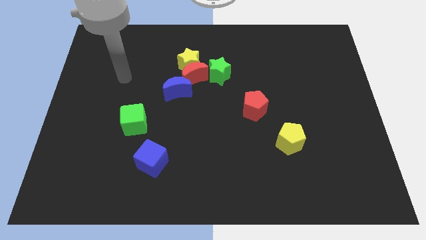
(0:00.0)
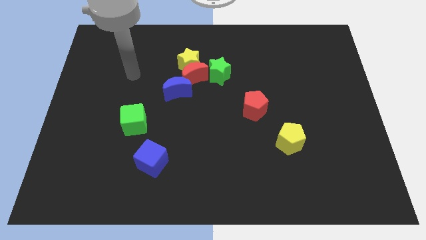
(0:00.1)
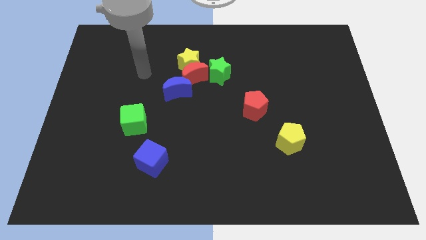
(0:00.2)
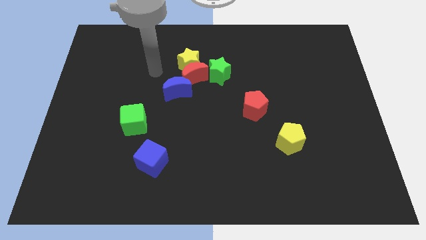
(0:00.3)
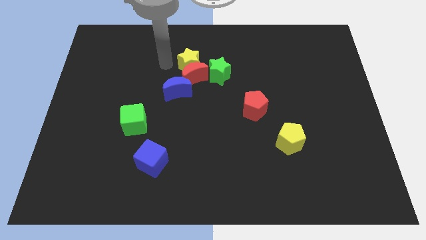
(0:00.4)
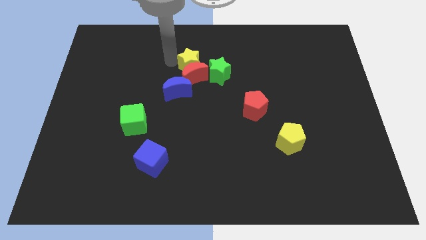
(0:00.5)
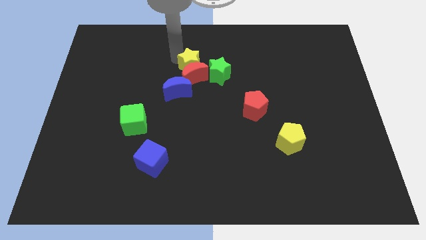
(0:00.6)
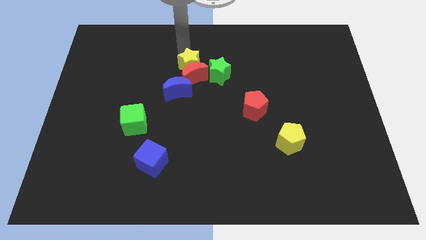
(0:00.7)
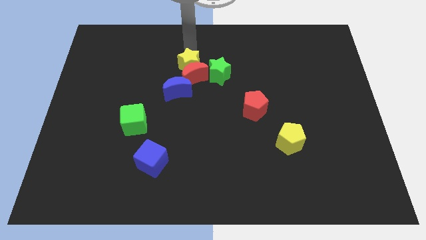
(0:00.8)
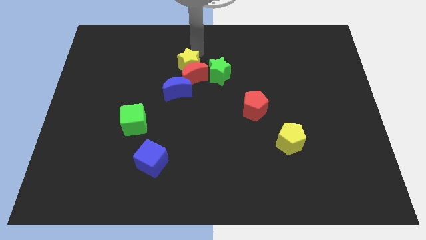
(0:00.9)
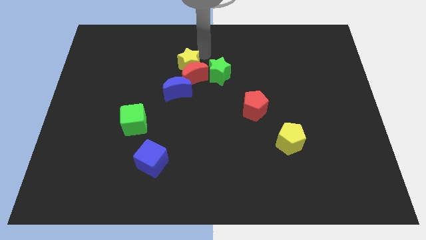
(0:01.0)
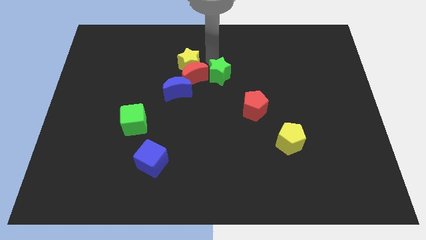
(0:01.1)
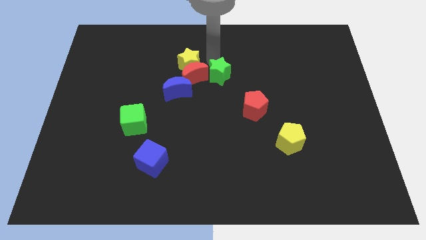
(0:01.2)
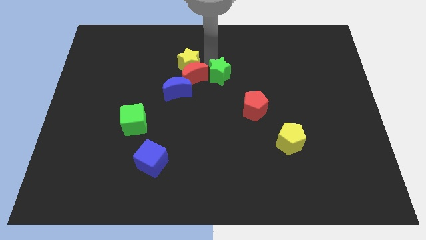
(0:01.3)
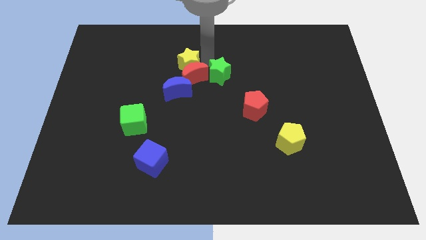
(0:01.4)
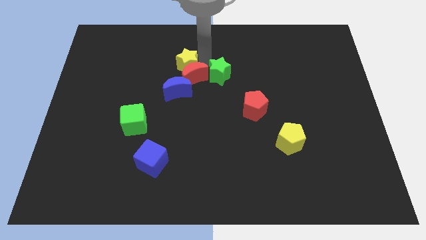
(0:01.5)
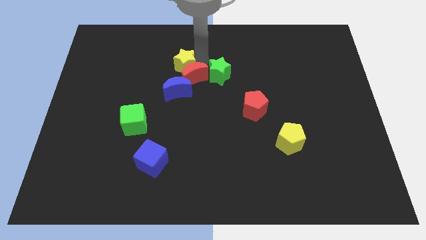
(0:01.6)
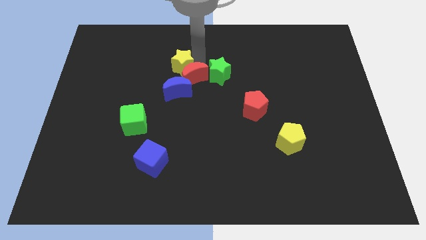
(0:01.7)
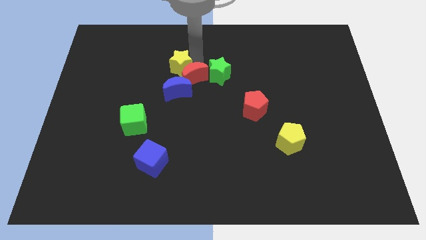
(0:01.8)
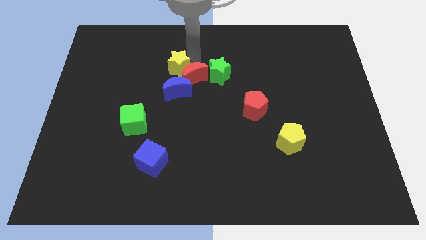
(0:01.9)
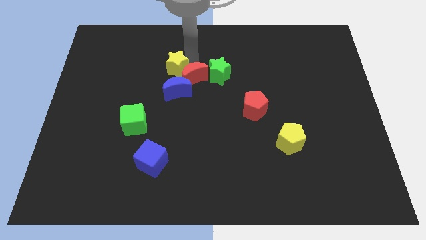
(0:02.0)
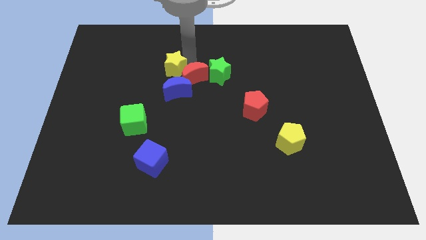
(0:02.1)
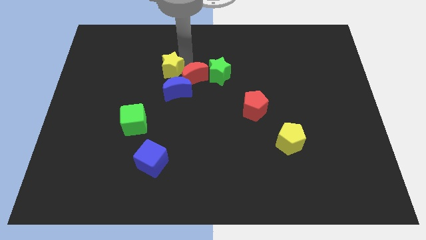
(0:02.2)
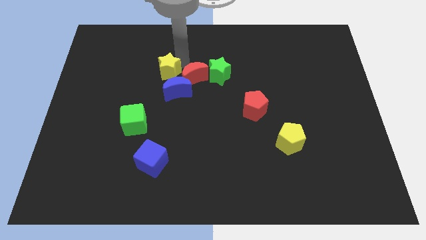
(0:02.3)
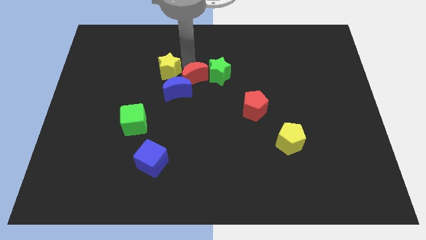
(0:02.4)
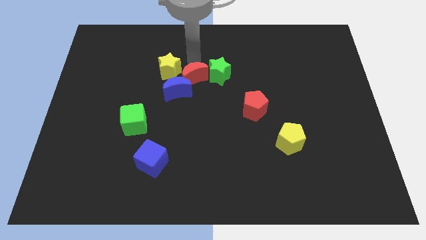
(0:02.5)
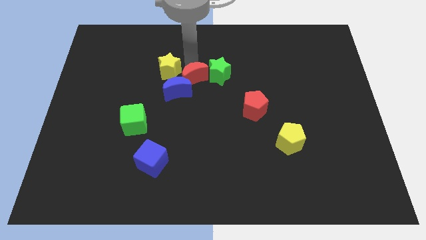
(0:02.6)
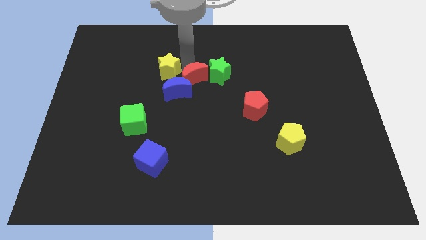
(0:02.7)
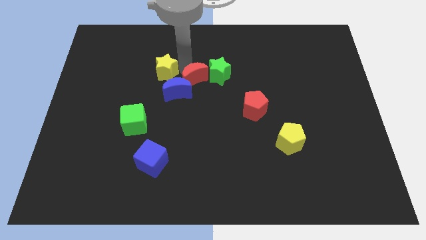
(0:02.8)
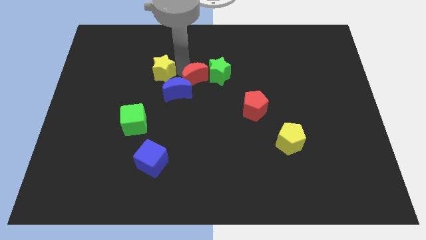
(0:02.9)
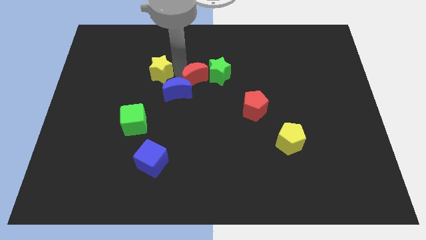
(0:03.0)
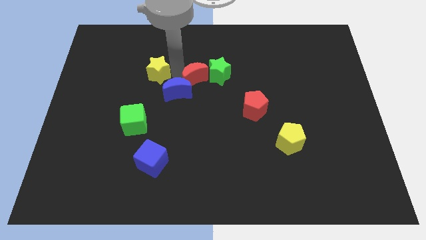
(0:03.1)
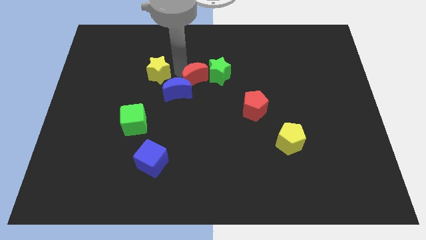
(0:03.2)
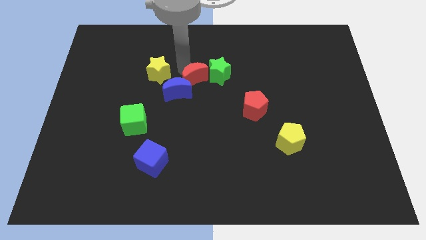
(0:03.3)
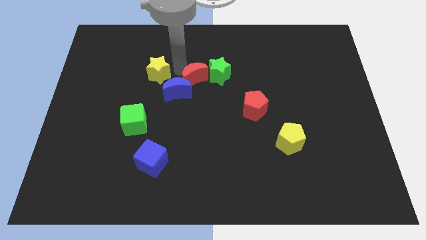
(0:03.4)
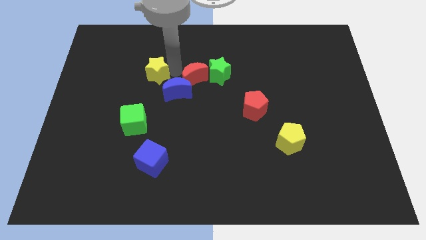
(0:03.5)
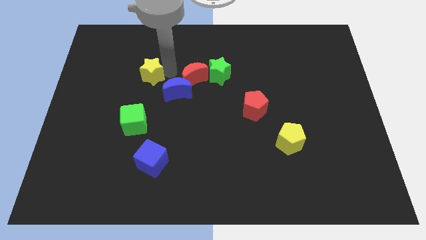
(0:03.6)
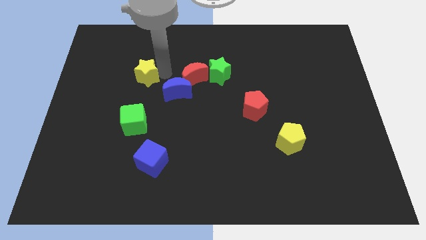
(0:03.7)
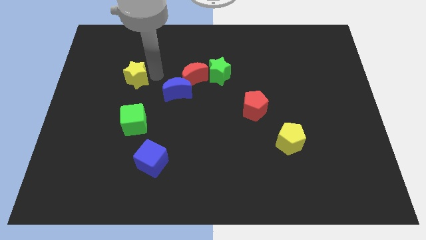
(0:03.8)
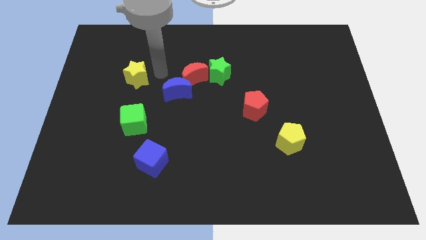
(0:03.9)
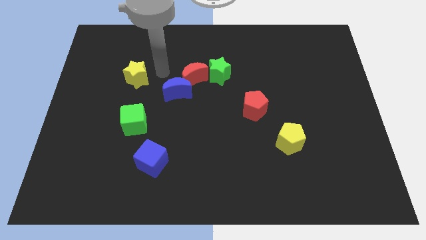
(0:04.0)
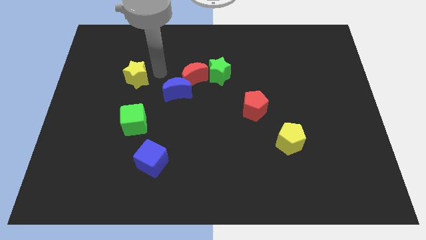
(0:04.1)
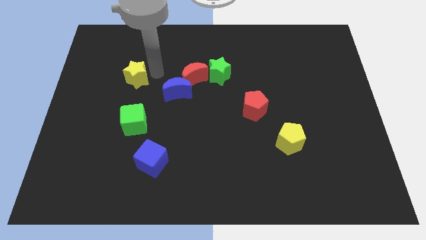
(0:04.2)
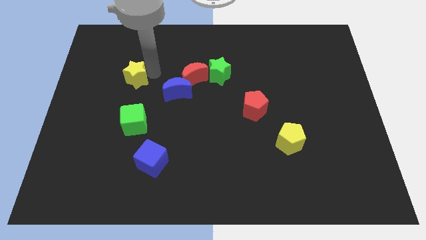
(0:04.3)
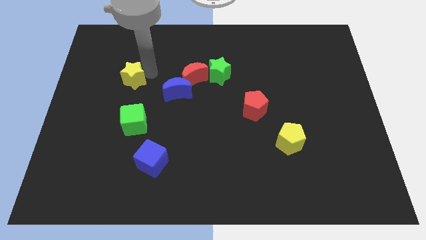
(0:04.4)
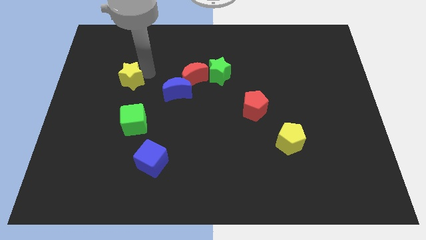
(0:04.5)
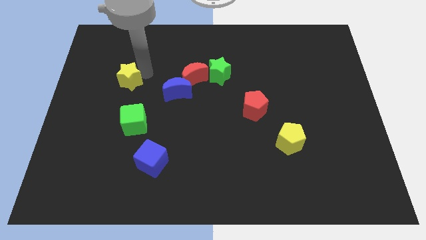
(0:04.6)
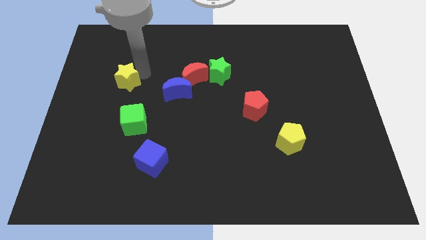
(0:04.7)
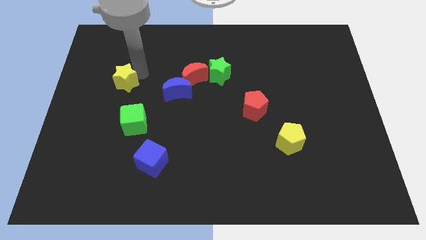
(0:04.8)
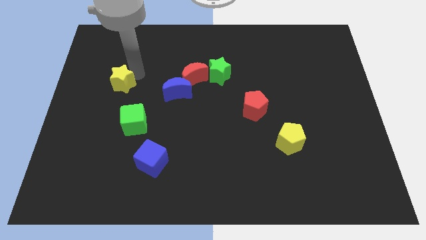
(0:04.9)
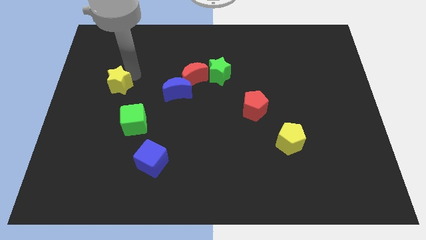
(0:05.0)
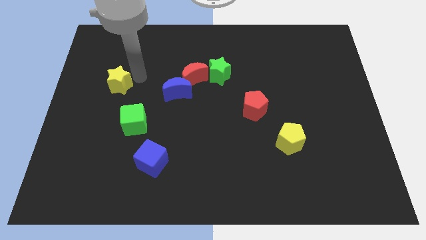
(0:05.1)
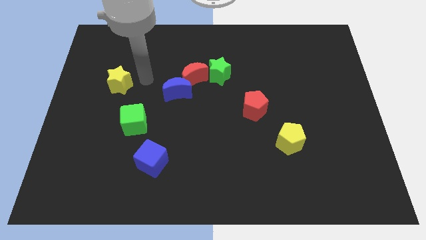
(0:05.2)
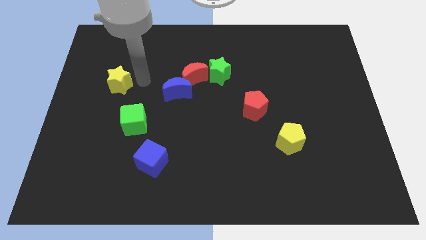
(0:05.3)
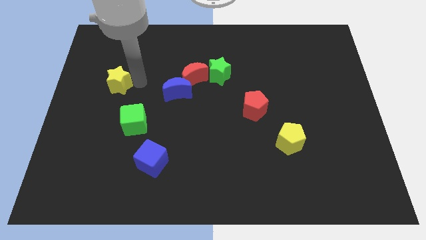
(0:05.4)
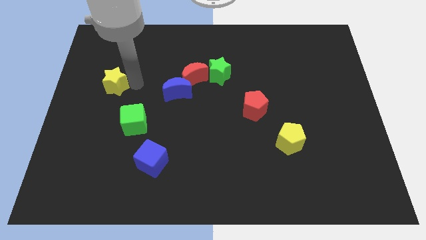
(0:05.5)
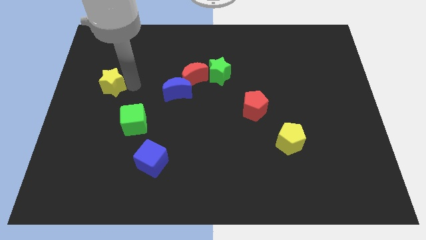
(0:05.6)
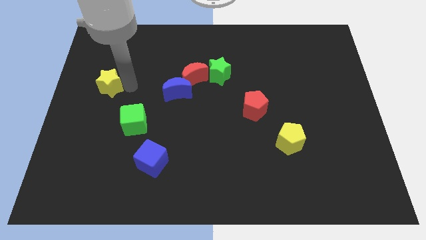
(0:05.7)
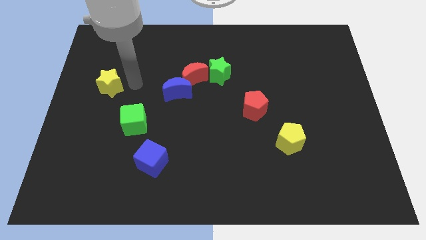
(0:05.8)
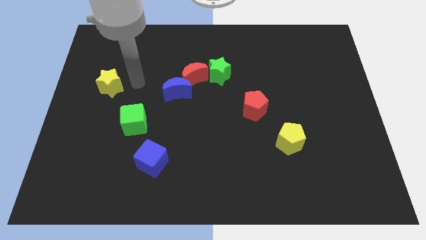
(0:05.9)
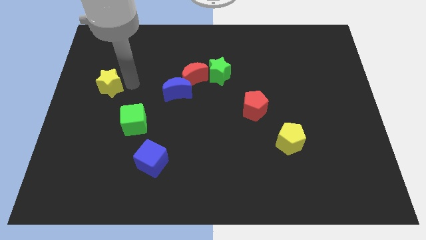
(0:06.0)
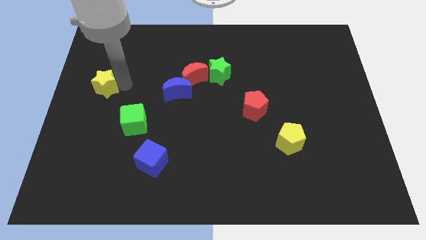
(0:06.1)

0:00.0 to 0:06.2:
put the yellow star to the left side
